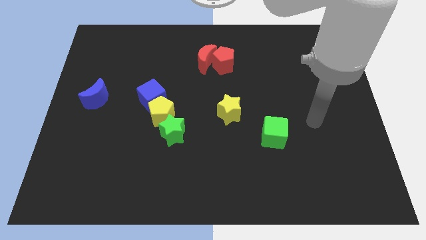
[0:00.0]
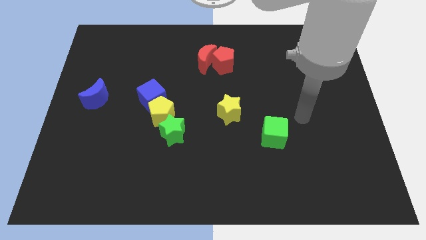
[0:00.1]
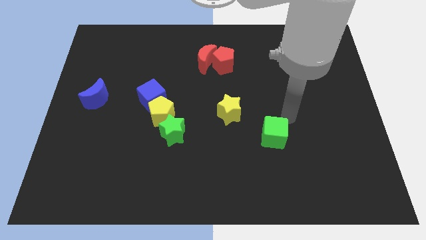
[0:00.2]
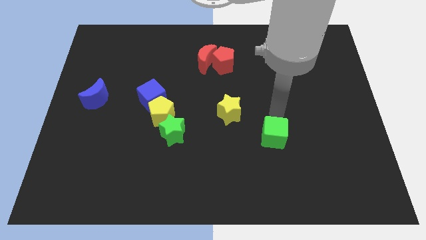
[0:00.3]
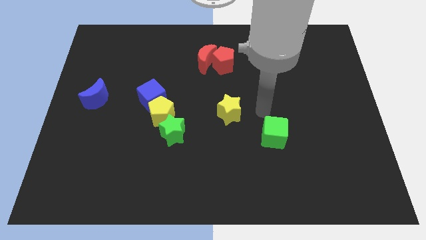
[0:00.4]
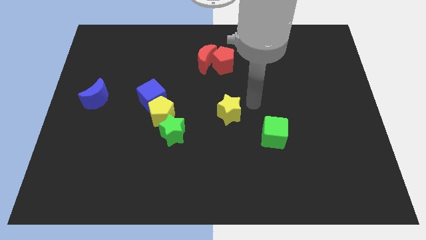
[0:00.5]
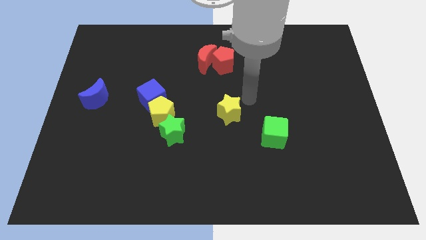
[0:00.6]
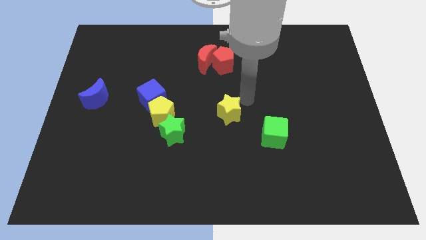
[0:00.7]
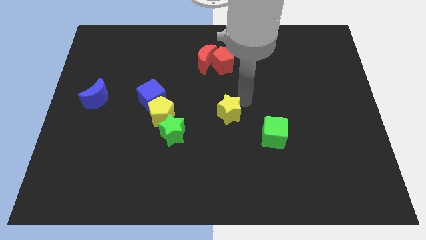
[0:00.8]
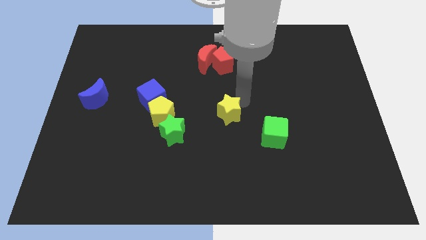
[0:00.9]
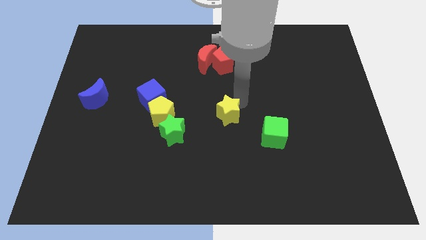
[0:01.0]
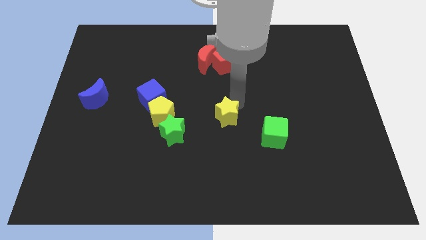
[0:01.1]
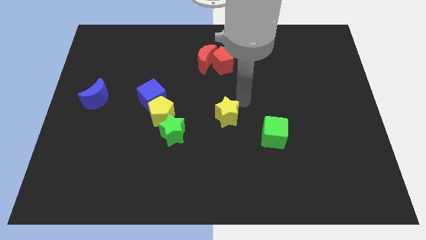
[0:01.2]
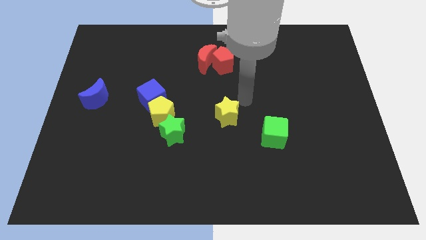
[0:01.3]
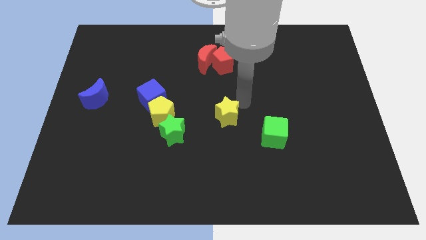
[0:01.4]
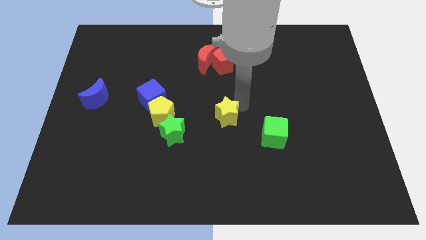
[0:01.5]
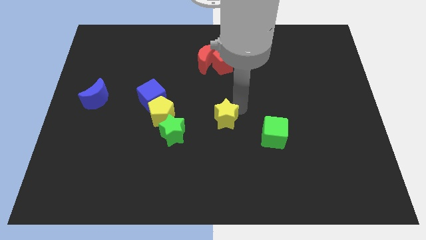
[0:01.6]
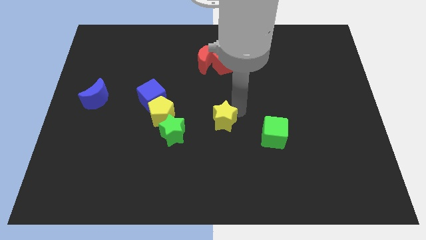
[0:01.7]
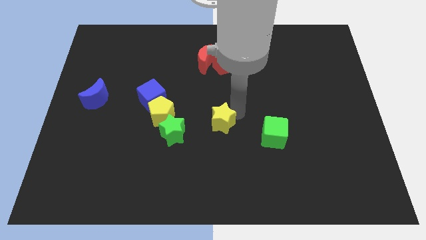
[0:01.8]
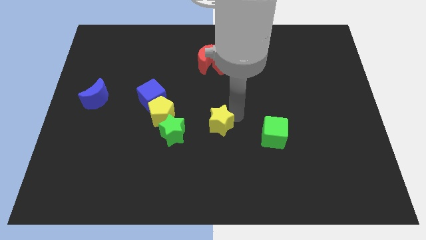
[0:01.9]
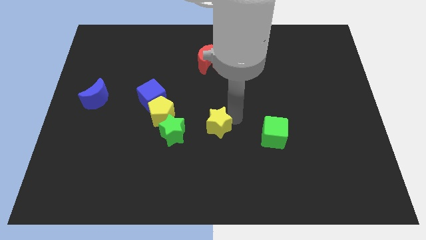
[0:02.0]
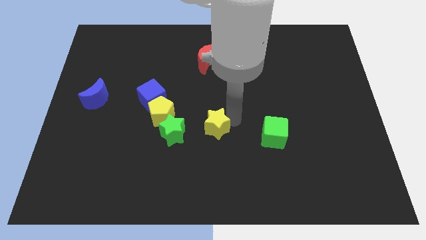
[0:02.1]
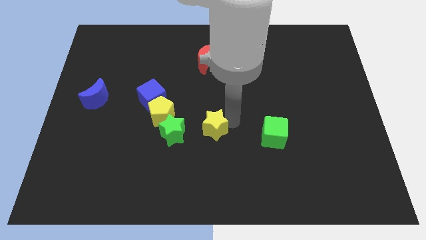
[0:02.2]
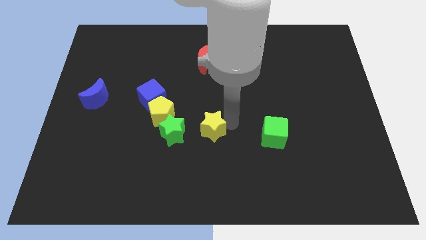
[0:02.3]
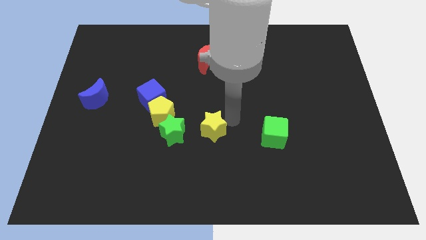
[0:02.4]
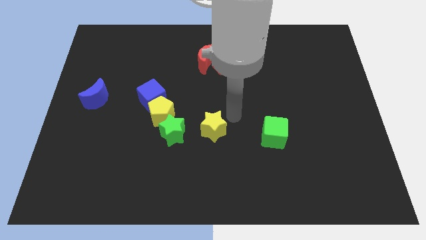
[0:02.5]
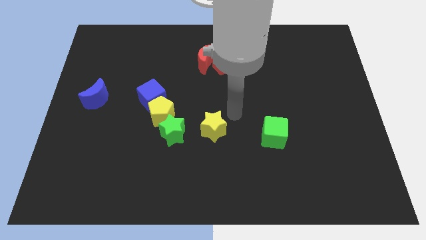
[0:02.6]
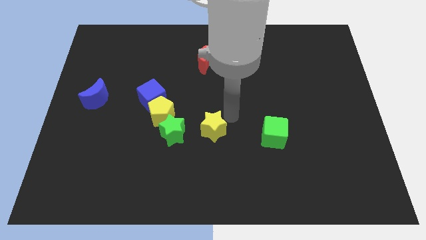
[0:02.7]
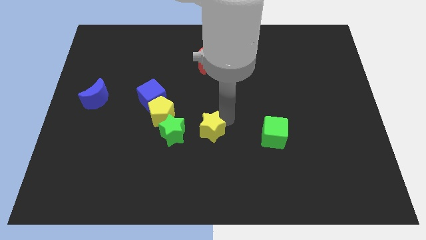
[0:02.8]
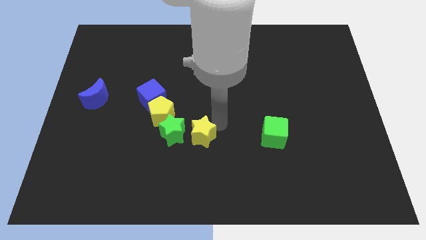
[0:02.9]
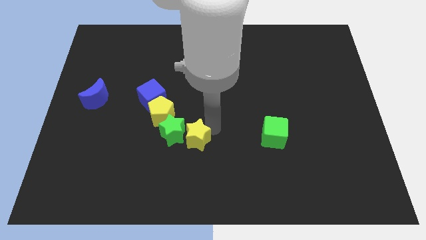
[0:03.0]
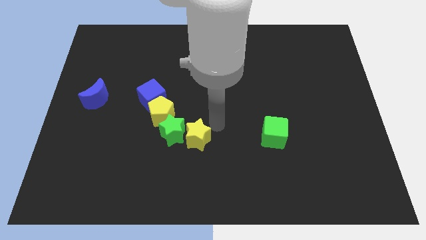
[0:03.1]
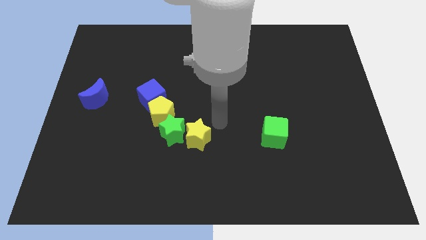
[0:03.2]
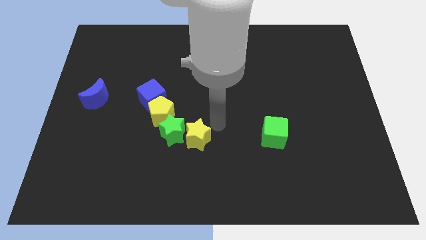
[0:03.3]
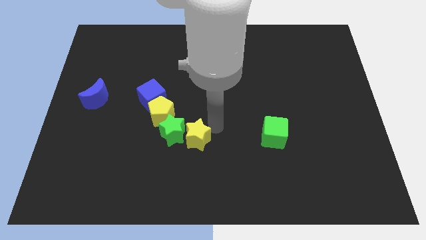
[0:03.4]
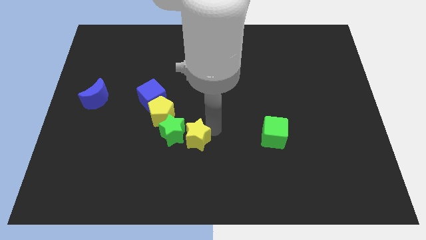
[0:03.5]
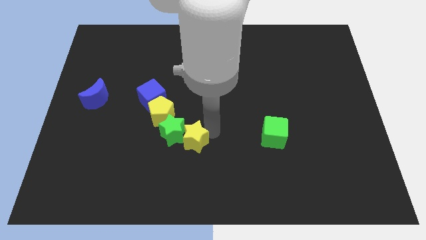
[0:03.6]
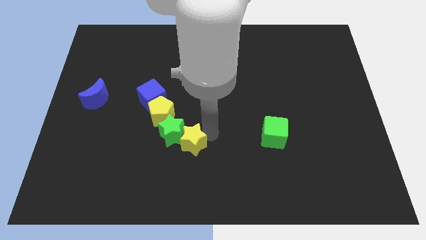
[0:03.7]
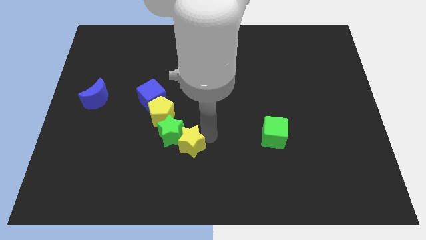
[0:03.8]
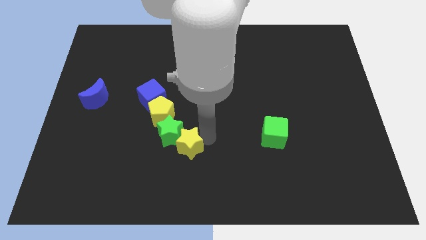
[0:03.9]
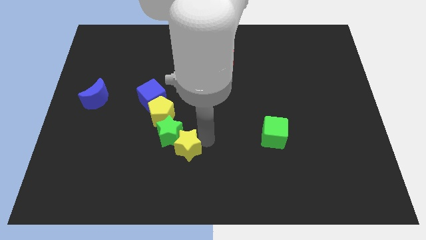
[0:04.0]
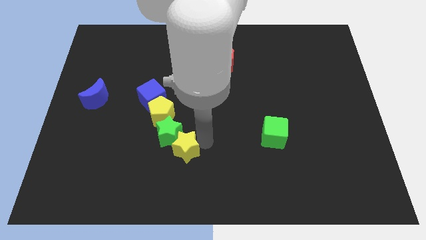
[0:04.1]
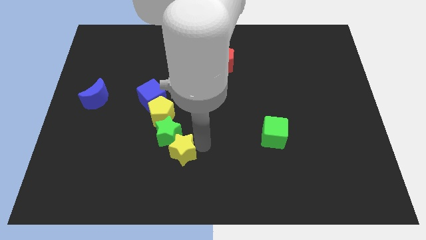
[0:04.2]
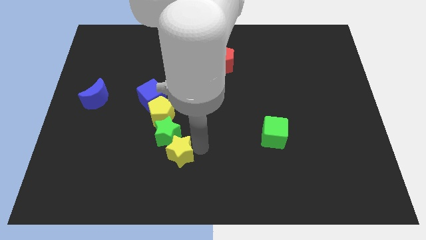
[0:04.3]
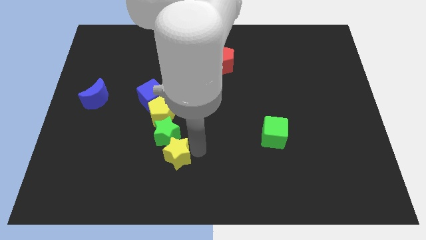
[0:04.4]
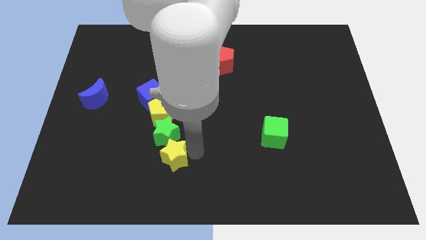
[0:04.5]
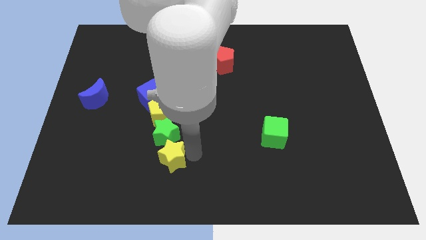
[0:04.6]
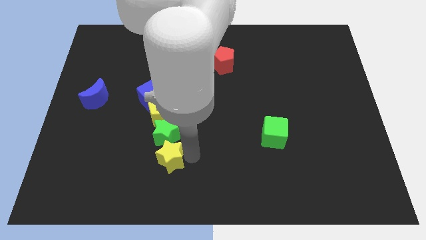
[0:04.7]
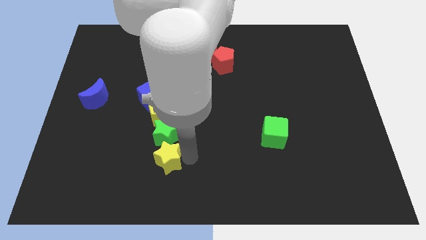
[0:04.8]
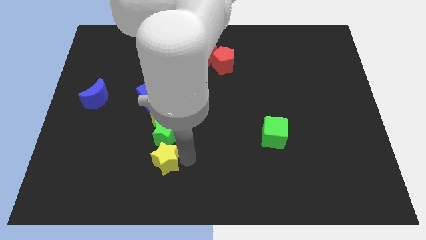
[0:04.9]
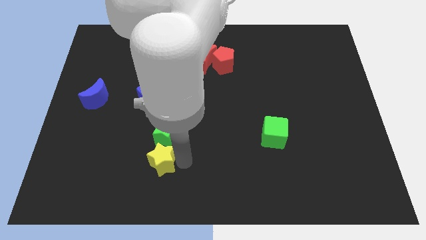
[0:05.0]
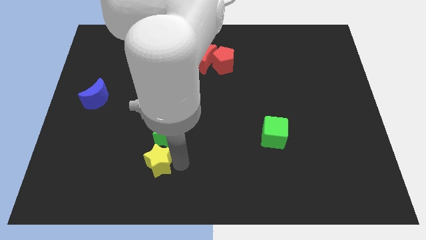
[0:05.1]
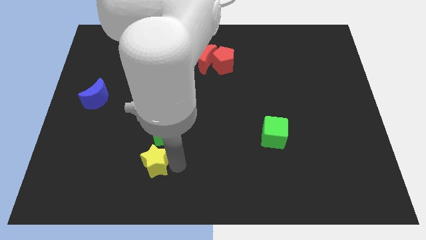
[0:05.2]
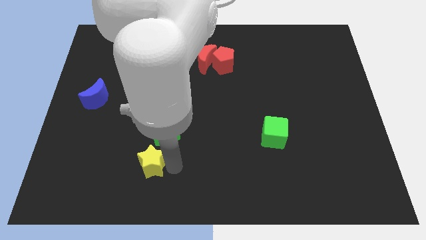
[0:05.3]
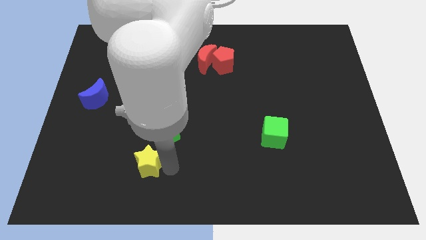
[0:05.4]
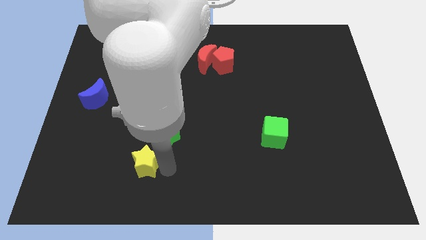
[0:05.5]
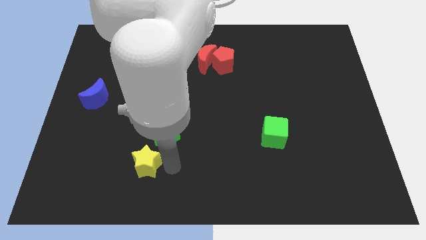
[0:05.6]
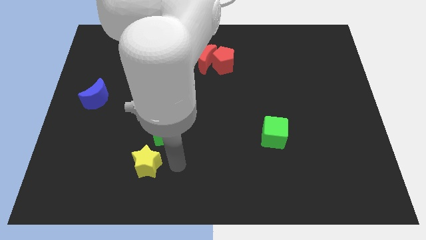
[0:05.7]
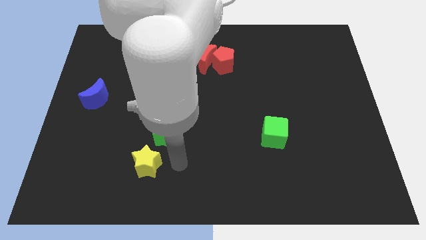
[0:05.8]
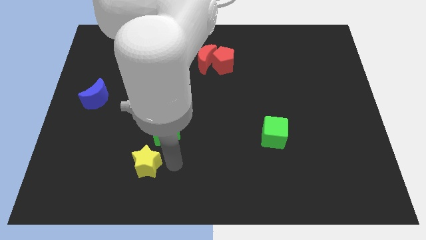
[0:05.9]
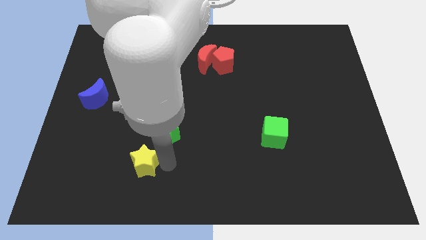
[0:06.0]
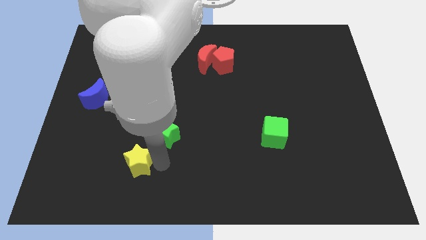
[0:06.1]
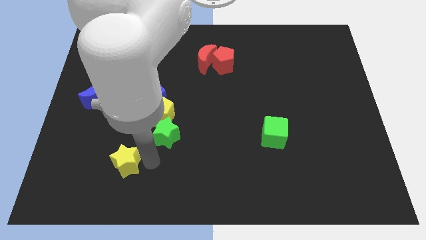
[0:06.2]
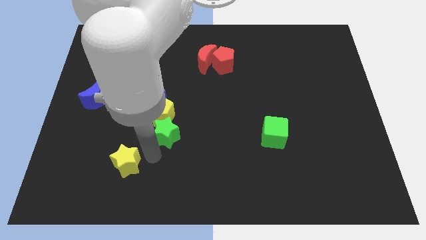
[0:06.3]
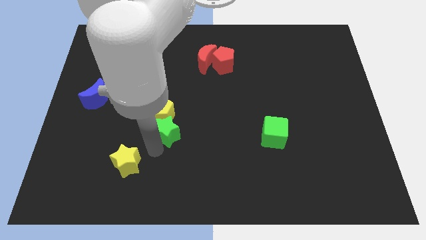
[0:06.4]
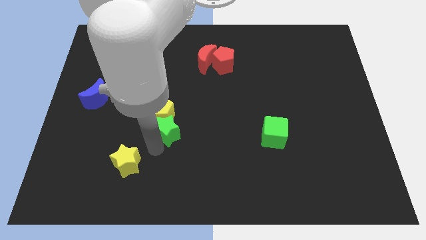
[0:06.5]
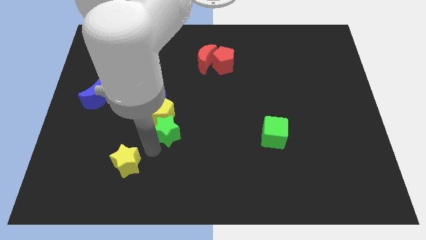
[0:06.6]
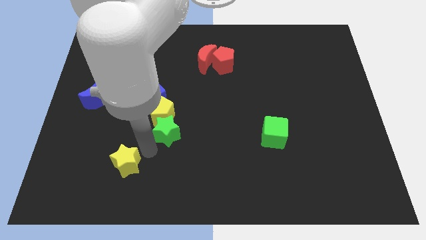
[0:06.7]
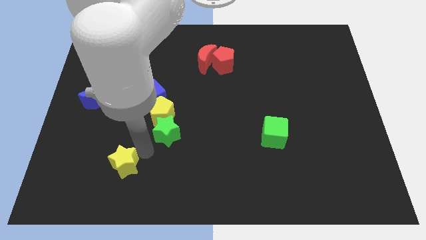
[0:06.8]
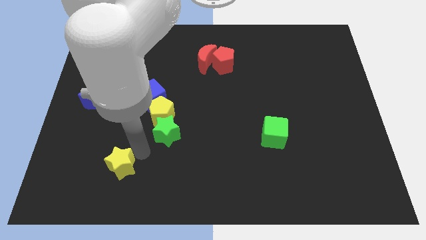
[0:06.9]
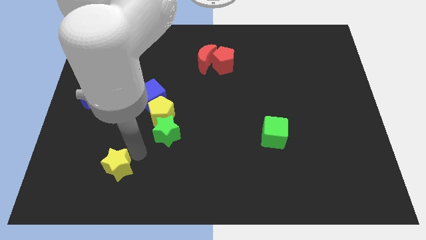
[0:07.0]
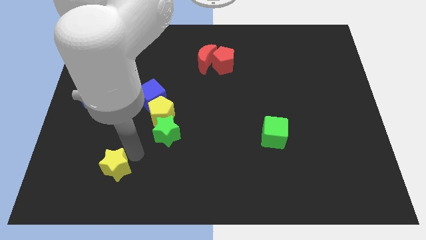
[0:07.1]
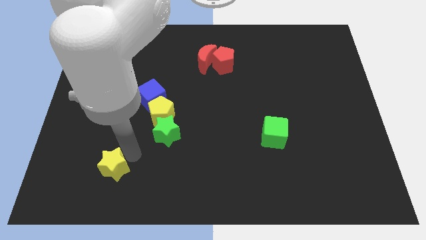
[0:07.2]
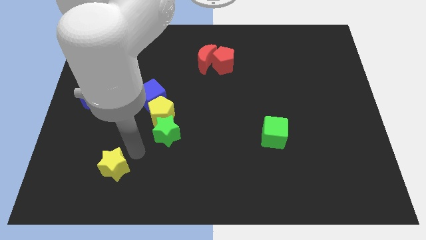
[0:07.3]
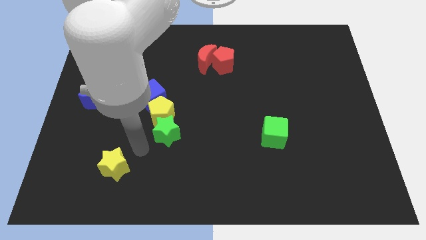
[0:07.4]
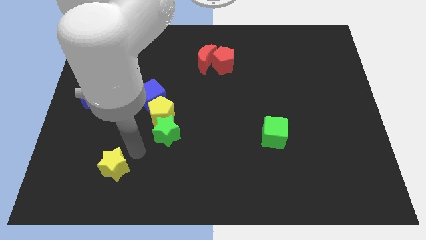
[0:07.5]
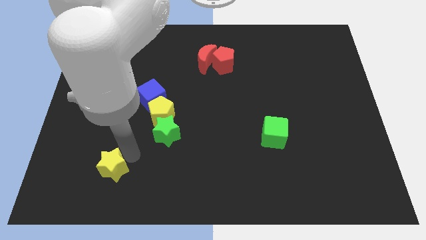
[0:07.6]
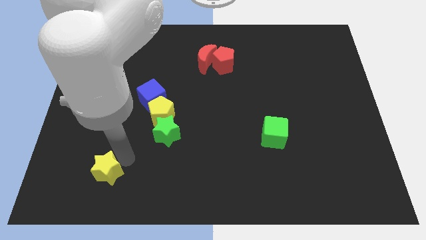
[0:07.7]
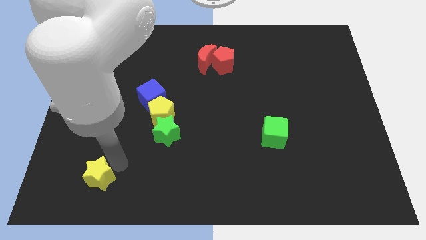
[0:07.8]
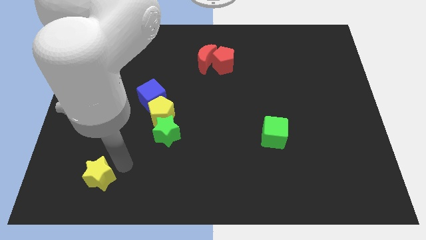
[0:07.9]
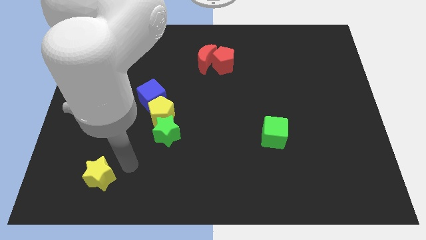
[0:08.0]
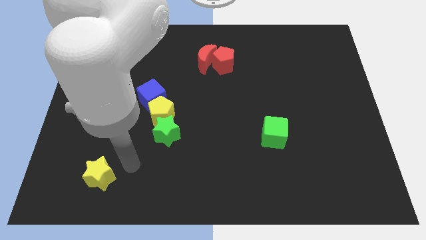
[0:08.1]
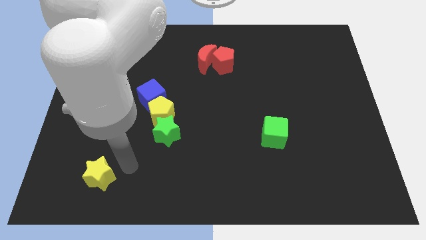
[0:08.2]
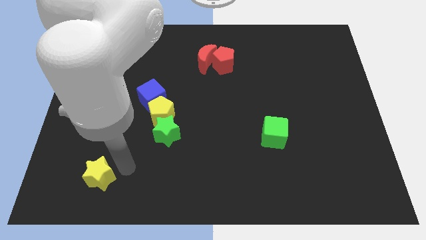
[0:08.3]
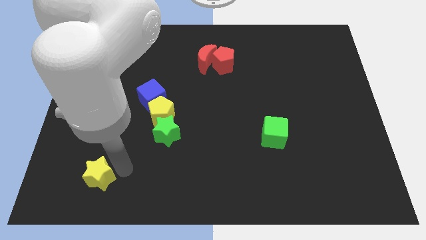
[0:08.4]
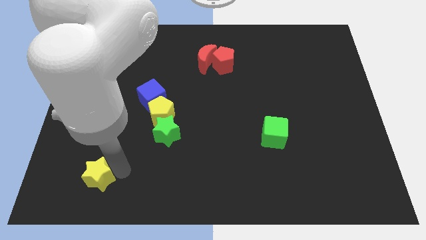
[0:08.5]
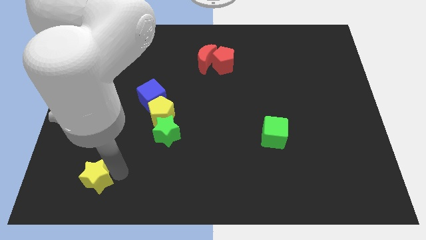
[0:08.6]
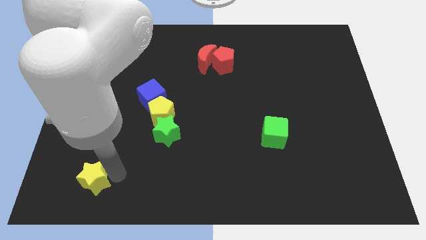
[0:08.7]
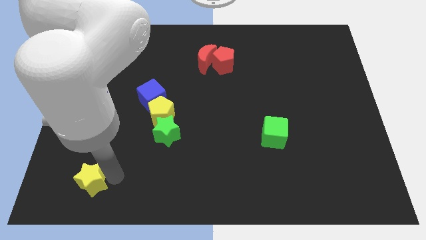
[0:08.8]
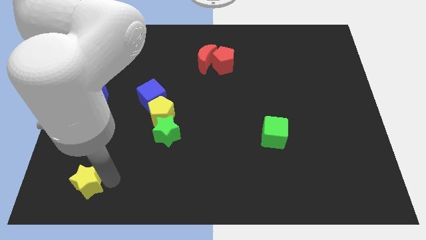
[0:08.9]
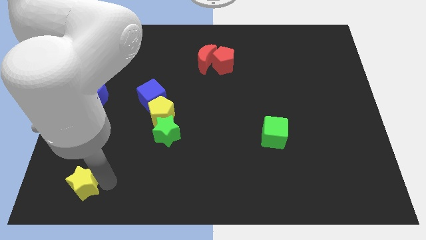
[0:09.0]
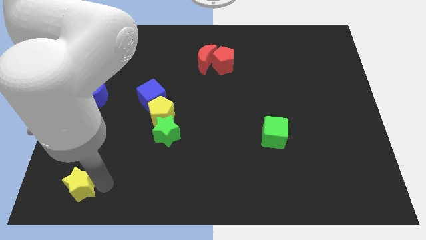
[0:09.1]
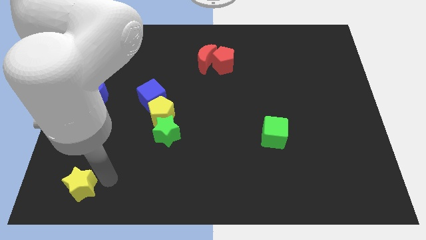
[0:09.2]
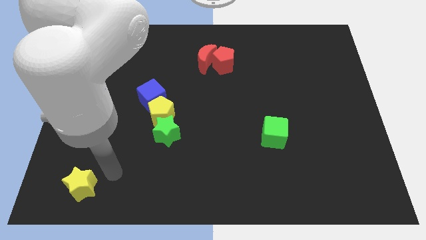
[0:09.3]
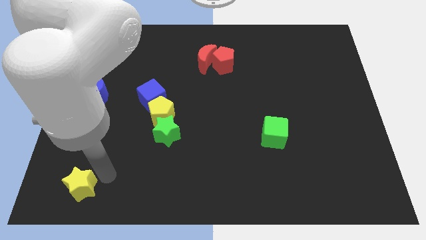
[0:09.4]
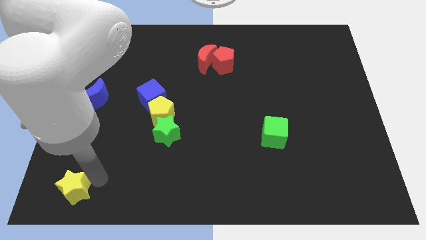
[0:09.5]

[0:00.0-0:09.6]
put the yellow star to the bottom left corner
